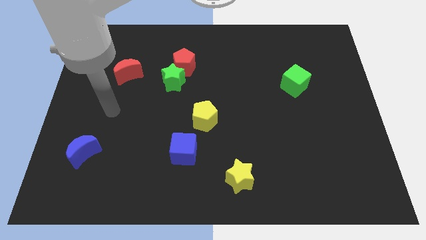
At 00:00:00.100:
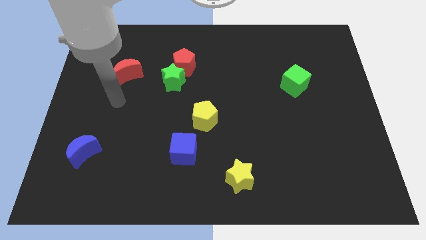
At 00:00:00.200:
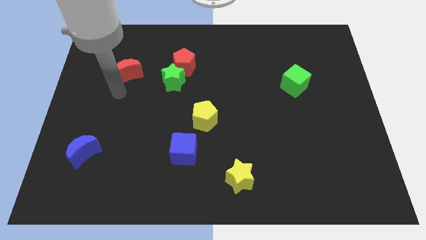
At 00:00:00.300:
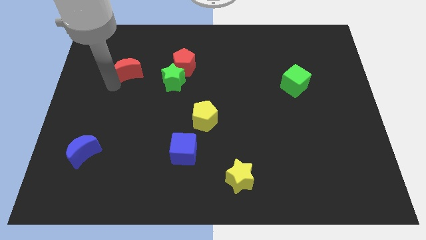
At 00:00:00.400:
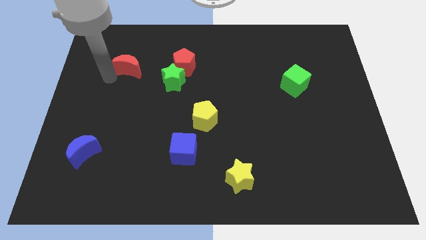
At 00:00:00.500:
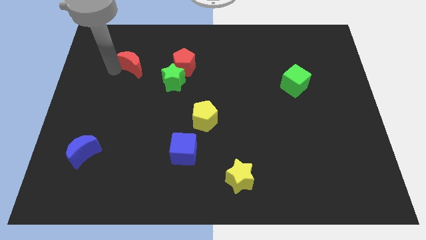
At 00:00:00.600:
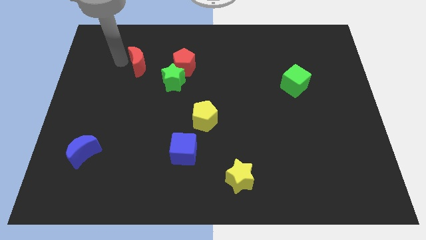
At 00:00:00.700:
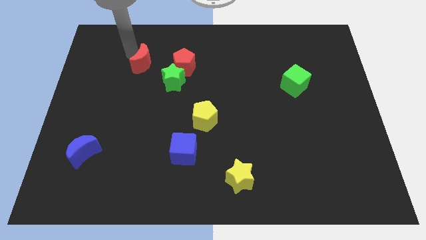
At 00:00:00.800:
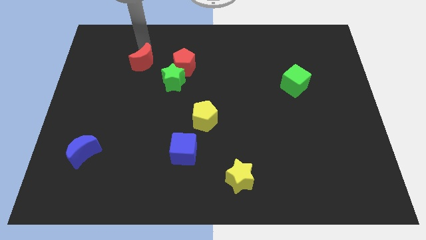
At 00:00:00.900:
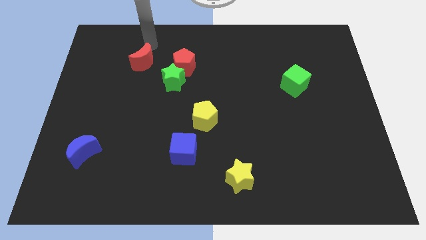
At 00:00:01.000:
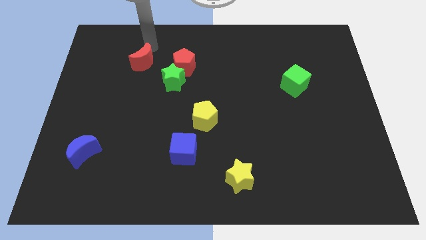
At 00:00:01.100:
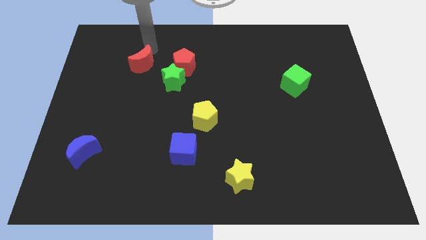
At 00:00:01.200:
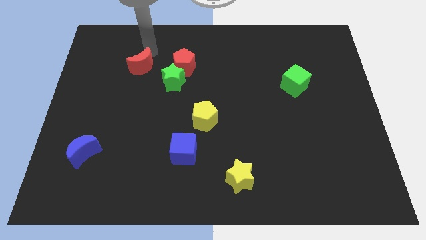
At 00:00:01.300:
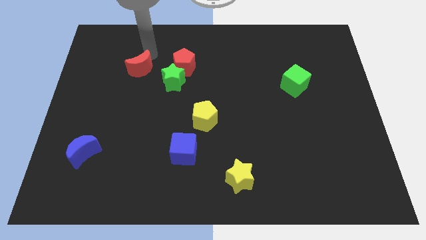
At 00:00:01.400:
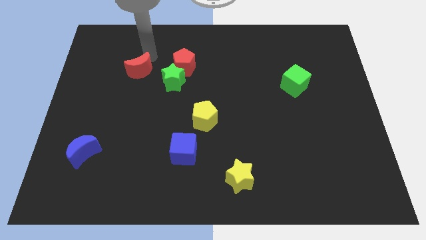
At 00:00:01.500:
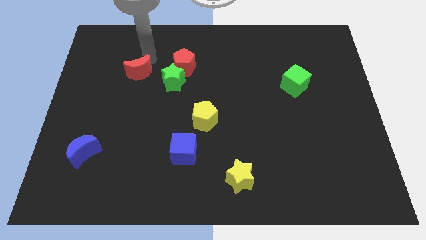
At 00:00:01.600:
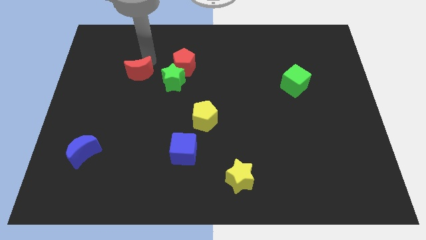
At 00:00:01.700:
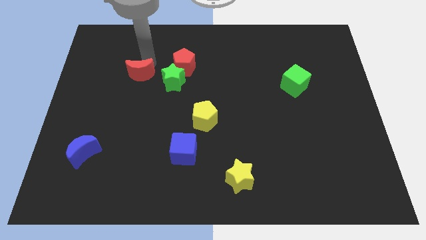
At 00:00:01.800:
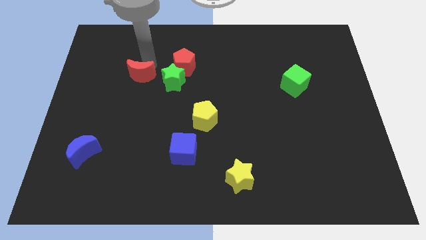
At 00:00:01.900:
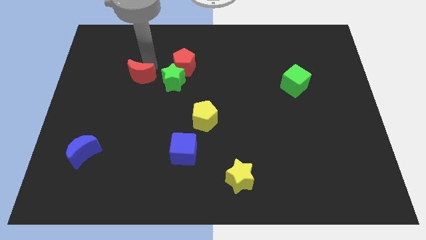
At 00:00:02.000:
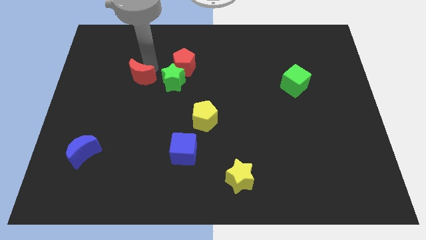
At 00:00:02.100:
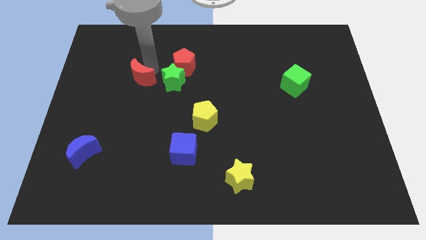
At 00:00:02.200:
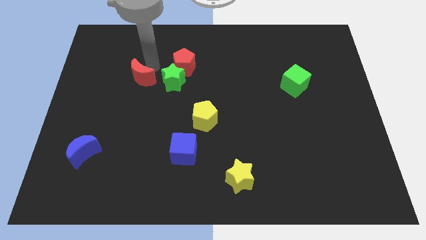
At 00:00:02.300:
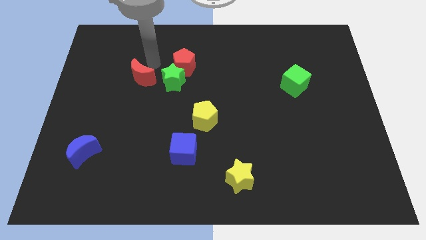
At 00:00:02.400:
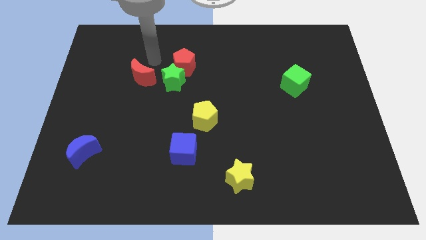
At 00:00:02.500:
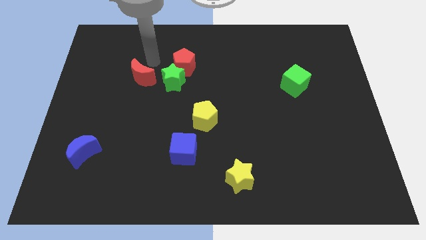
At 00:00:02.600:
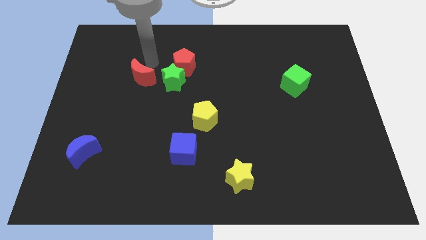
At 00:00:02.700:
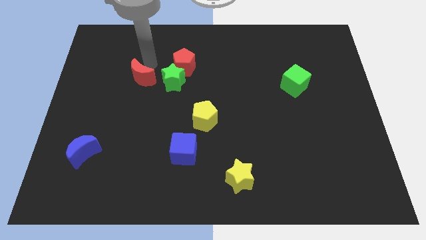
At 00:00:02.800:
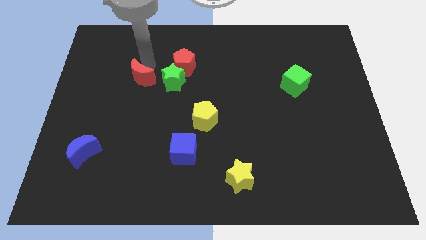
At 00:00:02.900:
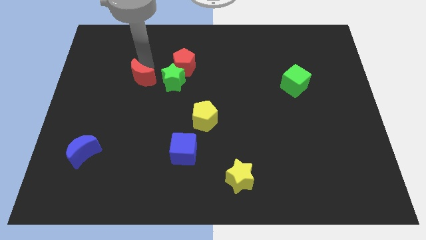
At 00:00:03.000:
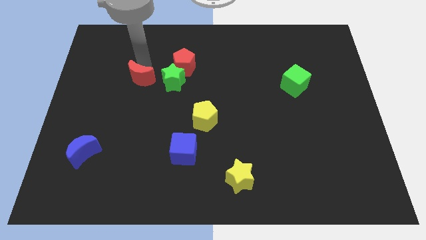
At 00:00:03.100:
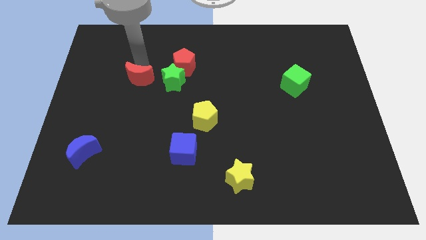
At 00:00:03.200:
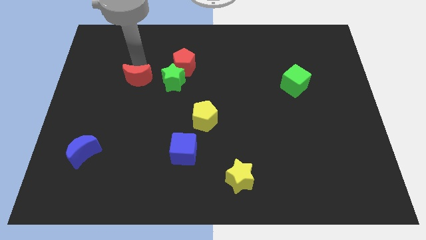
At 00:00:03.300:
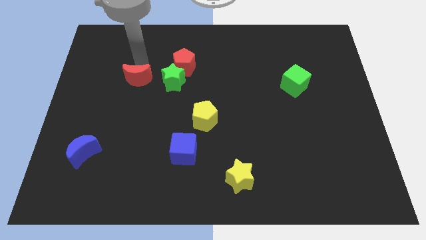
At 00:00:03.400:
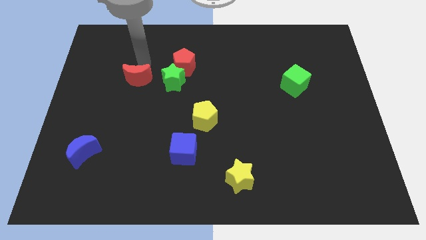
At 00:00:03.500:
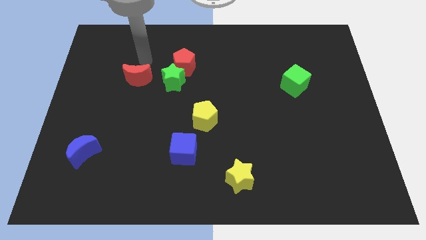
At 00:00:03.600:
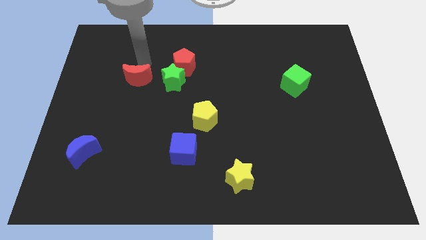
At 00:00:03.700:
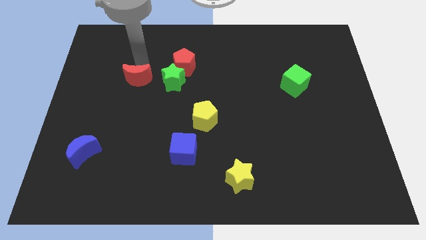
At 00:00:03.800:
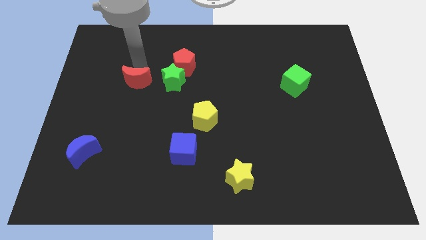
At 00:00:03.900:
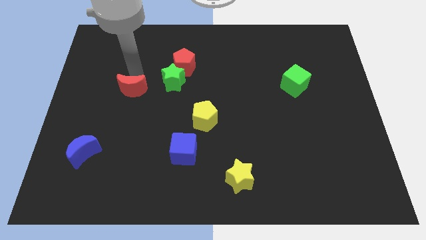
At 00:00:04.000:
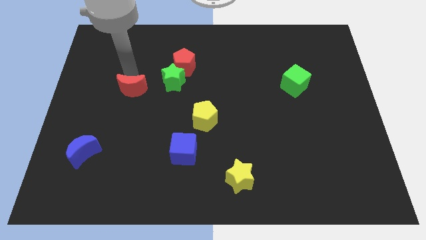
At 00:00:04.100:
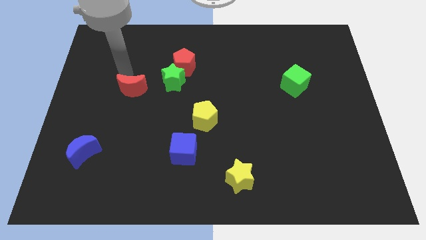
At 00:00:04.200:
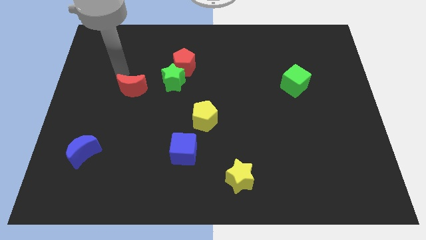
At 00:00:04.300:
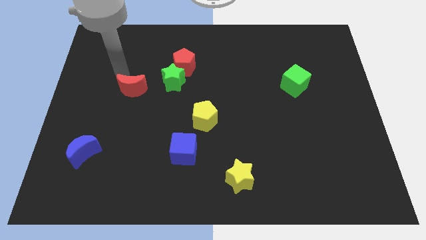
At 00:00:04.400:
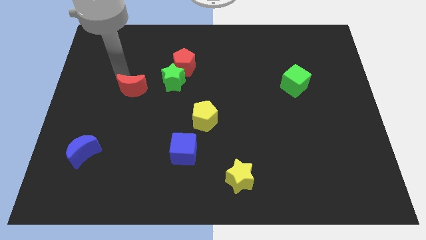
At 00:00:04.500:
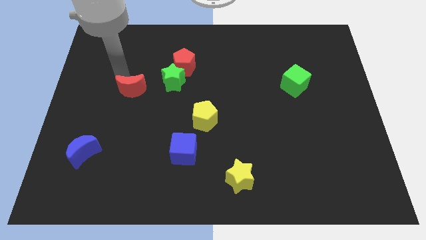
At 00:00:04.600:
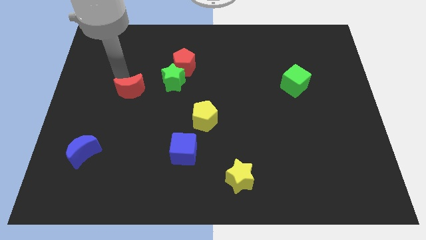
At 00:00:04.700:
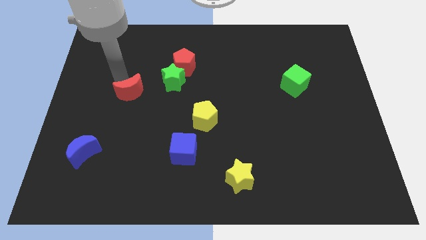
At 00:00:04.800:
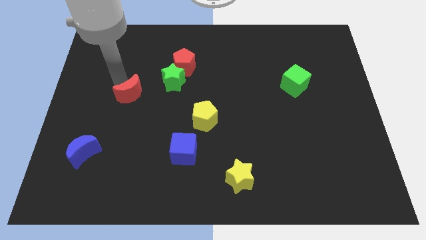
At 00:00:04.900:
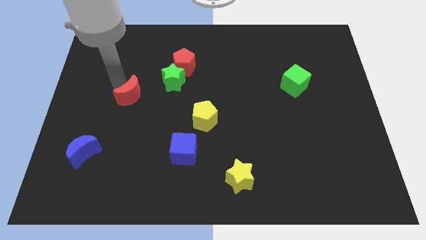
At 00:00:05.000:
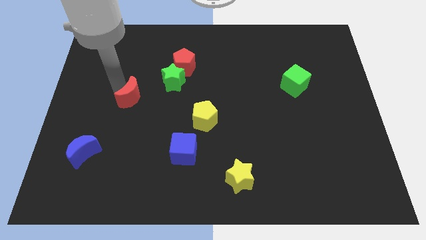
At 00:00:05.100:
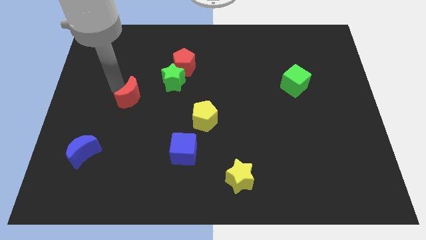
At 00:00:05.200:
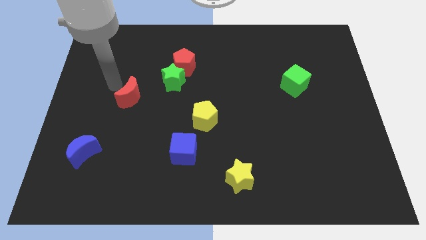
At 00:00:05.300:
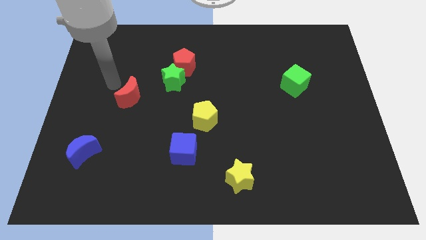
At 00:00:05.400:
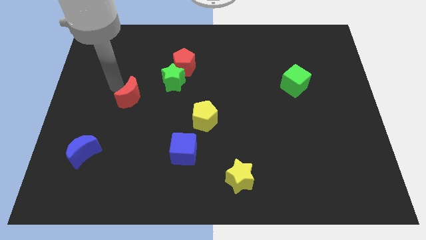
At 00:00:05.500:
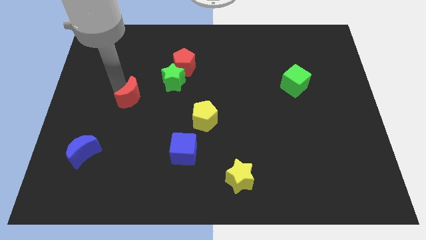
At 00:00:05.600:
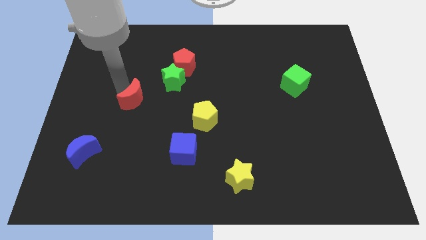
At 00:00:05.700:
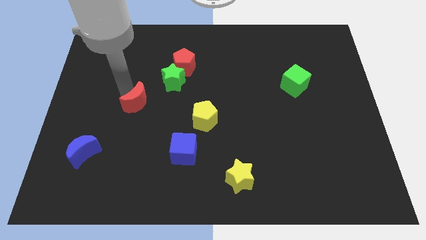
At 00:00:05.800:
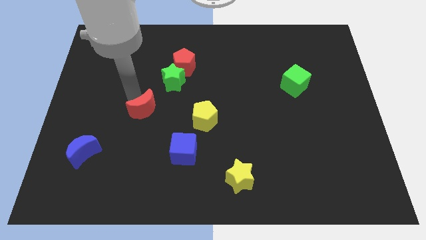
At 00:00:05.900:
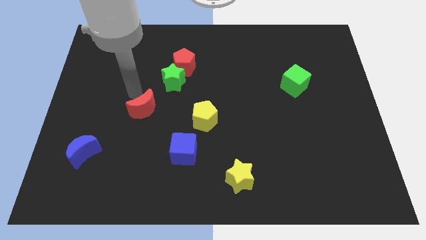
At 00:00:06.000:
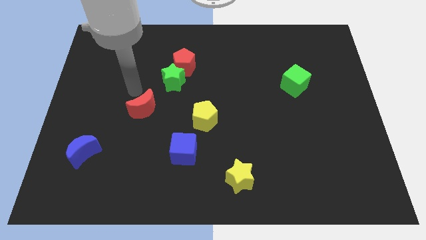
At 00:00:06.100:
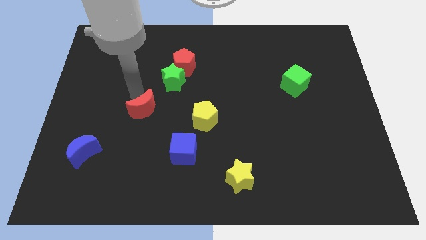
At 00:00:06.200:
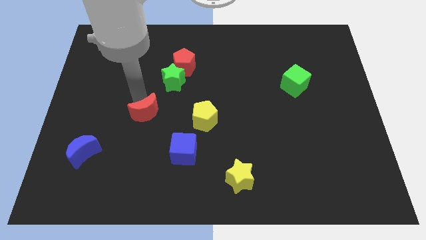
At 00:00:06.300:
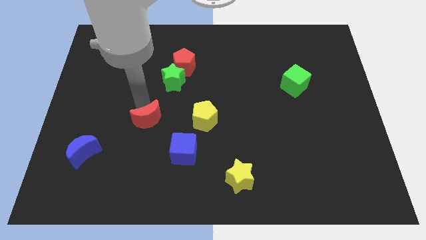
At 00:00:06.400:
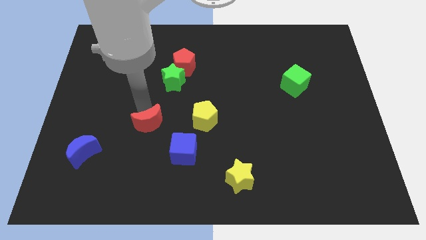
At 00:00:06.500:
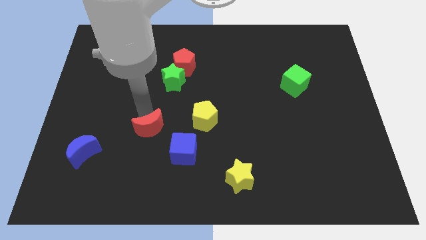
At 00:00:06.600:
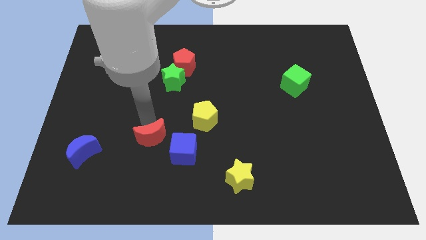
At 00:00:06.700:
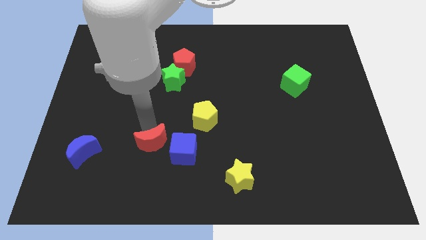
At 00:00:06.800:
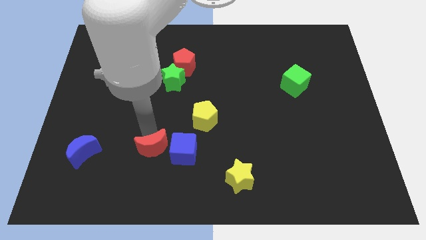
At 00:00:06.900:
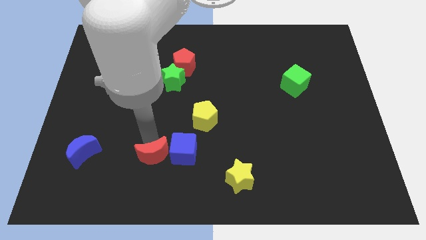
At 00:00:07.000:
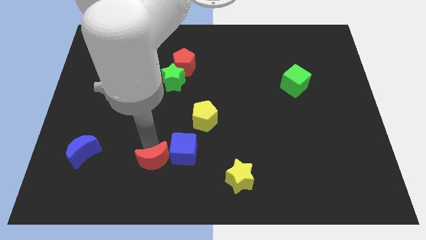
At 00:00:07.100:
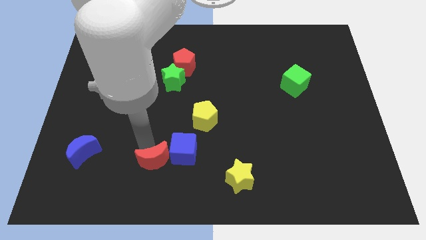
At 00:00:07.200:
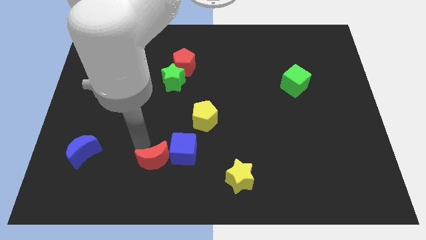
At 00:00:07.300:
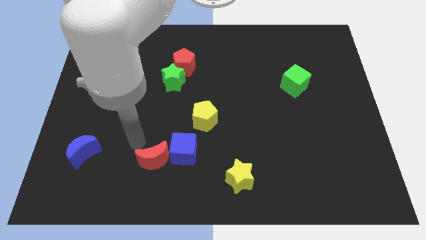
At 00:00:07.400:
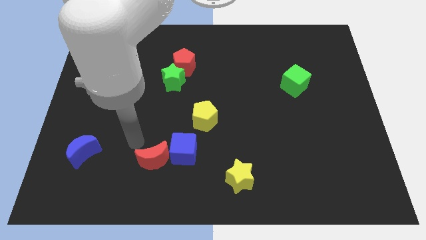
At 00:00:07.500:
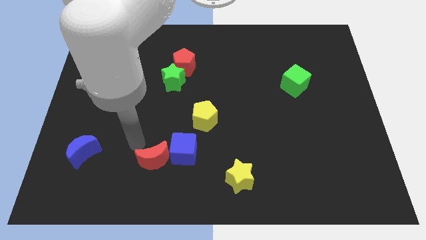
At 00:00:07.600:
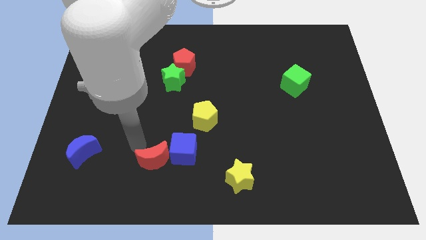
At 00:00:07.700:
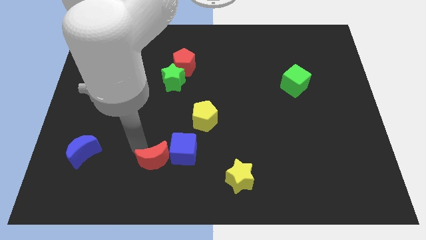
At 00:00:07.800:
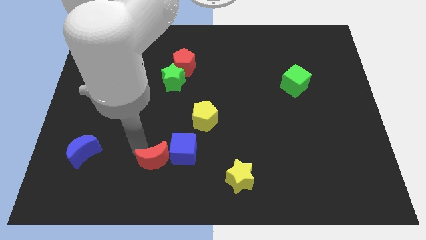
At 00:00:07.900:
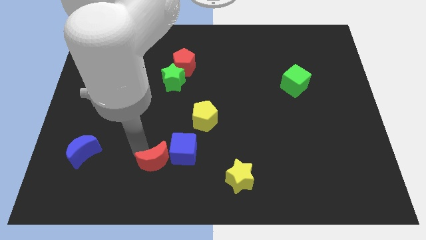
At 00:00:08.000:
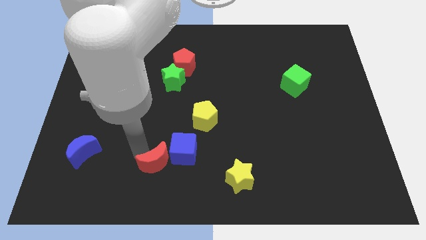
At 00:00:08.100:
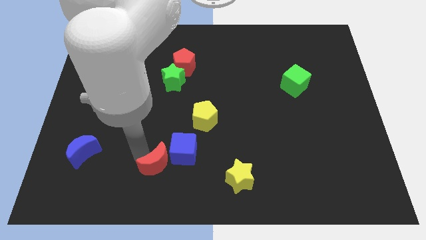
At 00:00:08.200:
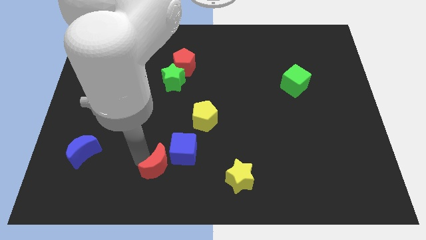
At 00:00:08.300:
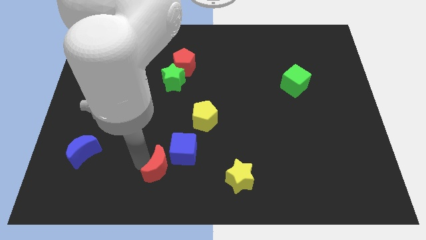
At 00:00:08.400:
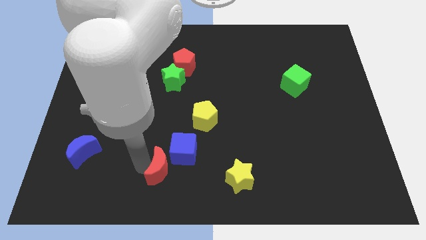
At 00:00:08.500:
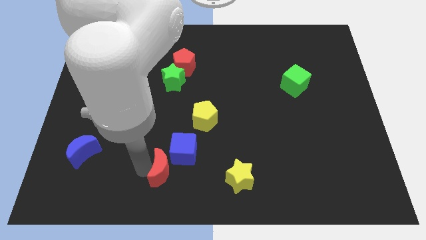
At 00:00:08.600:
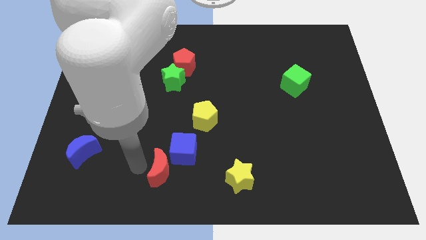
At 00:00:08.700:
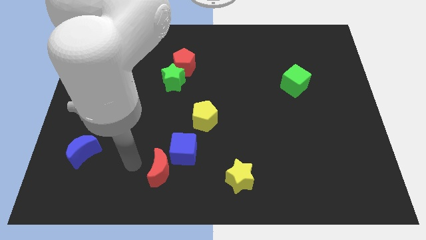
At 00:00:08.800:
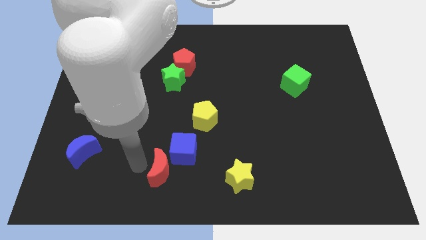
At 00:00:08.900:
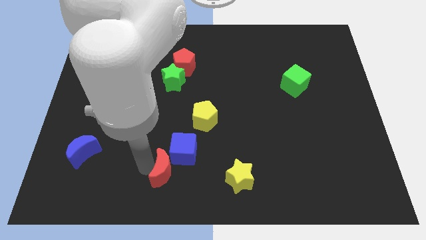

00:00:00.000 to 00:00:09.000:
put the red moon left of the yellow star
